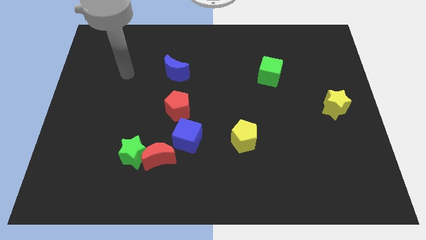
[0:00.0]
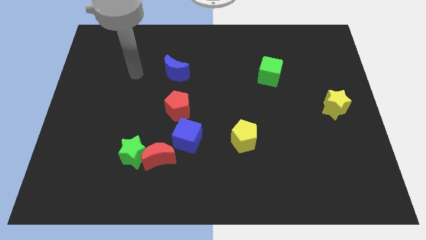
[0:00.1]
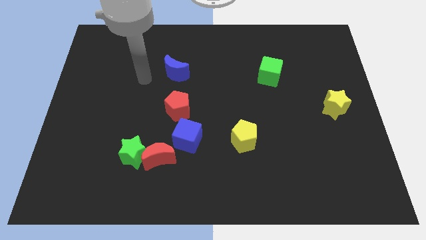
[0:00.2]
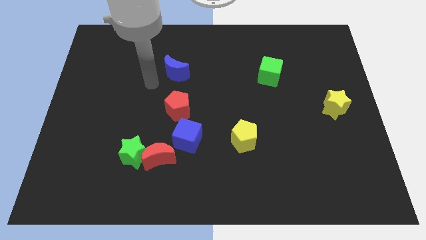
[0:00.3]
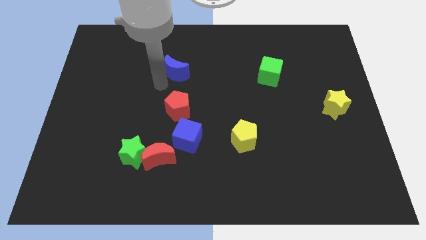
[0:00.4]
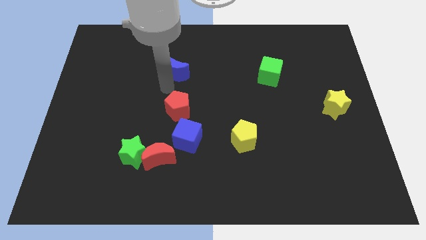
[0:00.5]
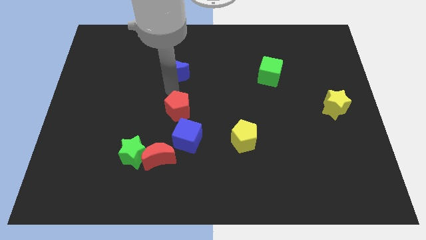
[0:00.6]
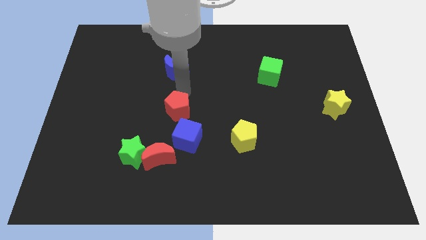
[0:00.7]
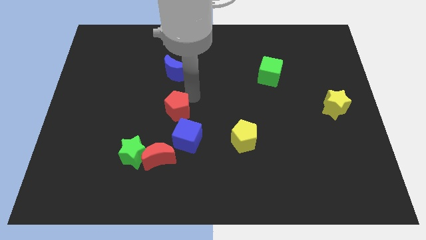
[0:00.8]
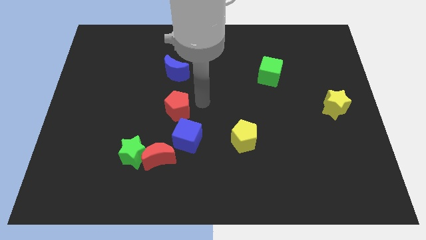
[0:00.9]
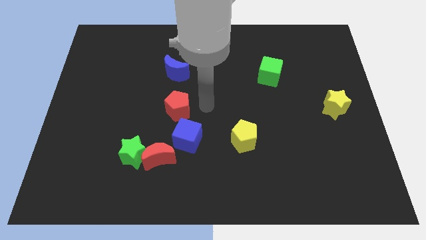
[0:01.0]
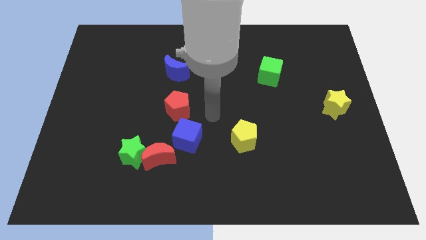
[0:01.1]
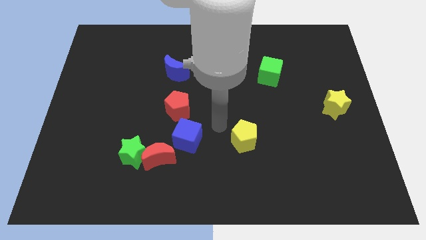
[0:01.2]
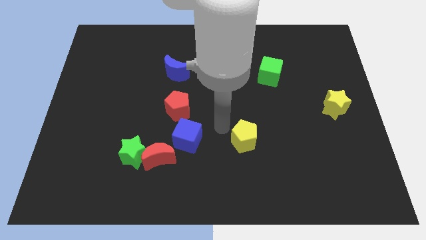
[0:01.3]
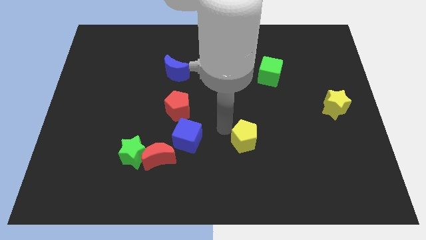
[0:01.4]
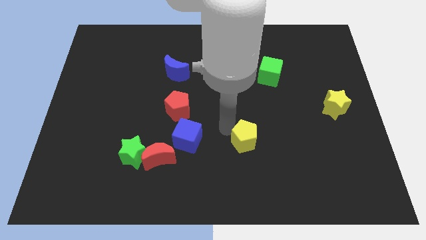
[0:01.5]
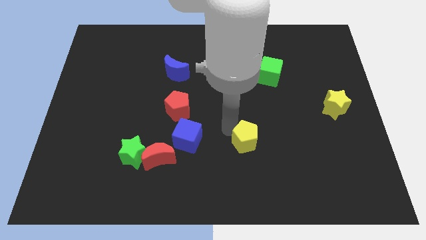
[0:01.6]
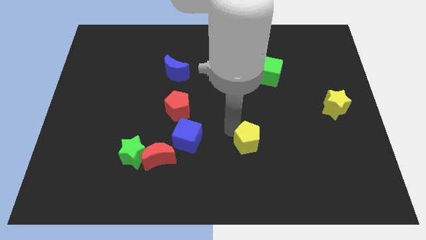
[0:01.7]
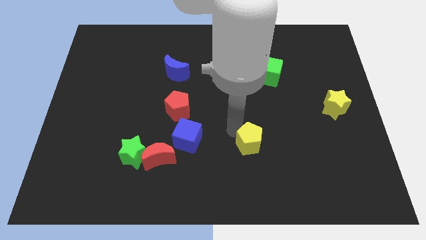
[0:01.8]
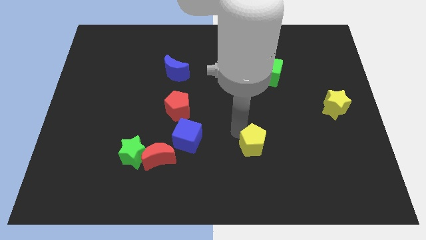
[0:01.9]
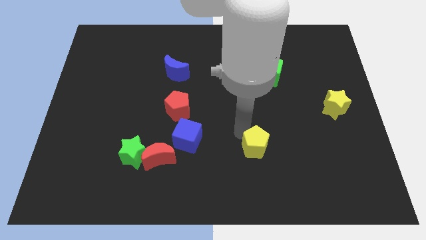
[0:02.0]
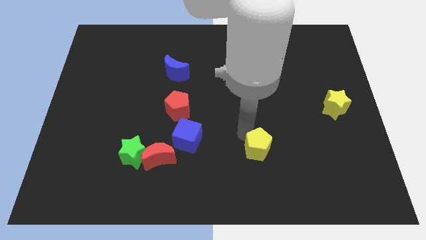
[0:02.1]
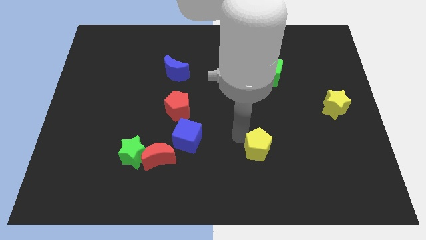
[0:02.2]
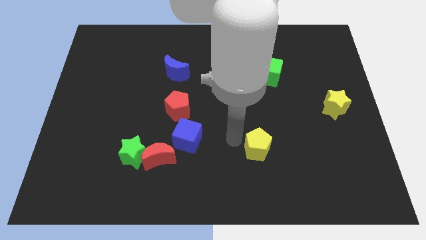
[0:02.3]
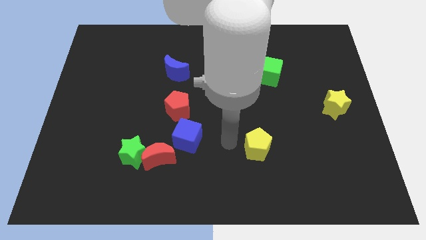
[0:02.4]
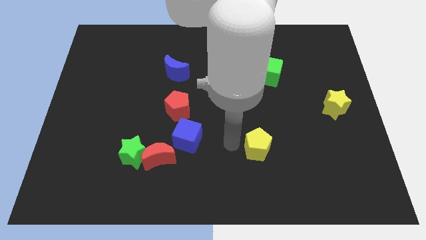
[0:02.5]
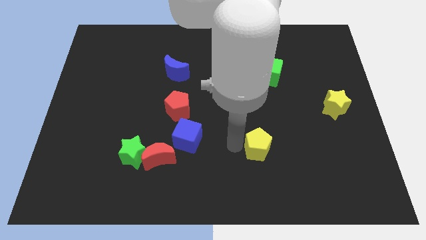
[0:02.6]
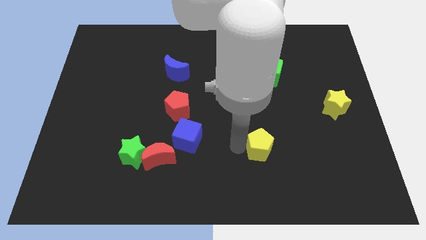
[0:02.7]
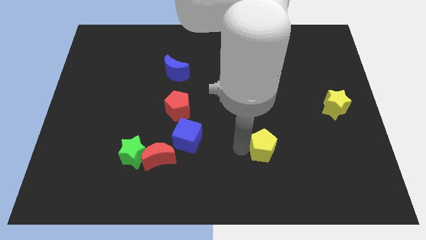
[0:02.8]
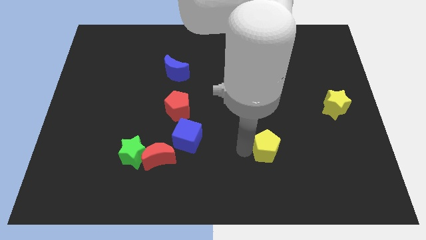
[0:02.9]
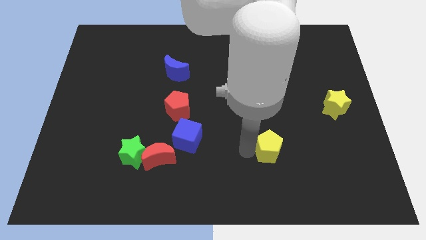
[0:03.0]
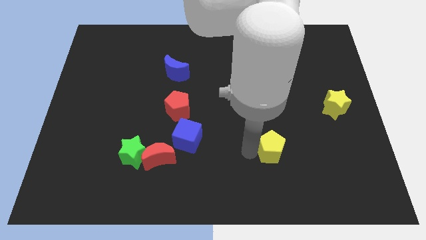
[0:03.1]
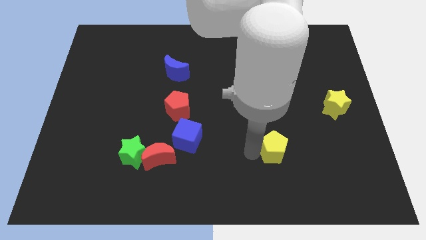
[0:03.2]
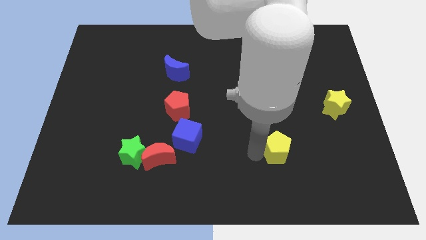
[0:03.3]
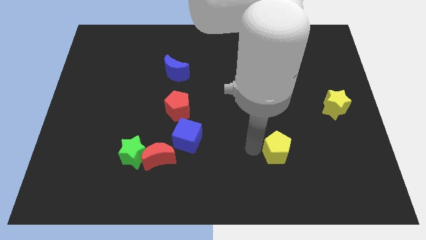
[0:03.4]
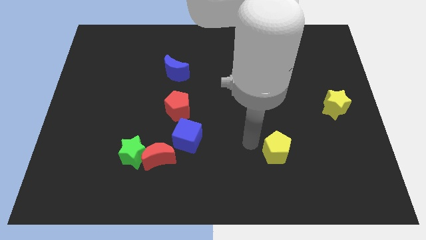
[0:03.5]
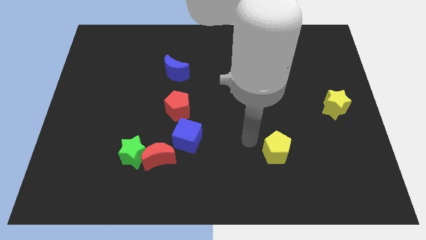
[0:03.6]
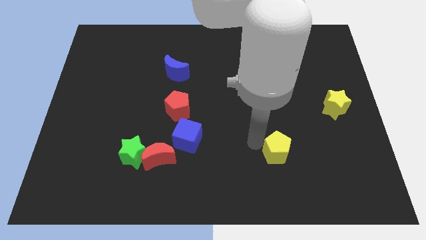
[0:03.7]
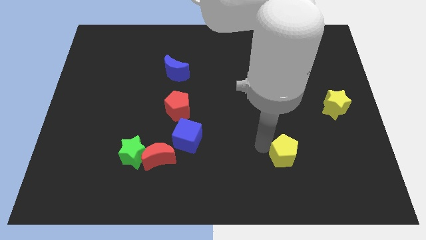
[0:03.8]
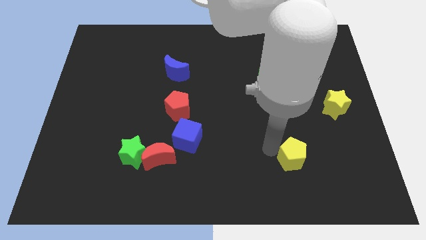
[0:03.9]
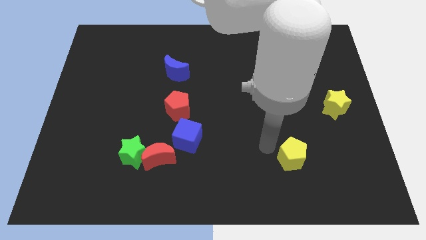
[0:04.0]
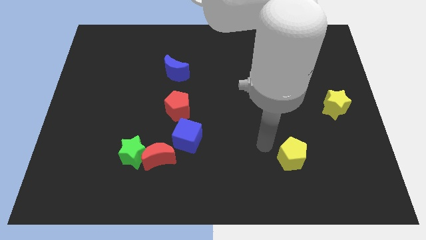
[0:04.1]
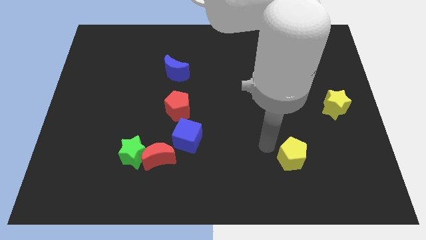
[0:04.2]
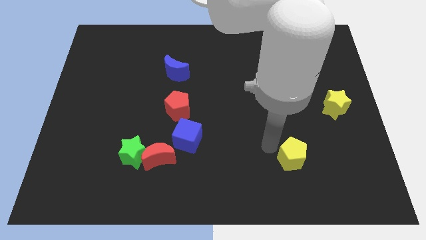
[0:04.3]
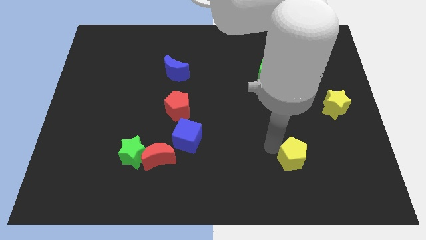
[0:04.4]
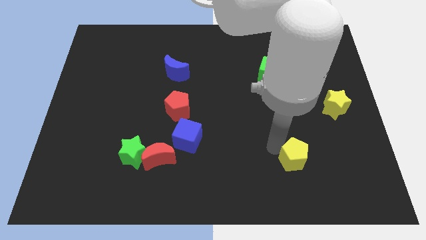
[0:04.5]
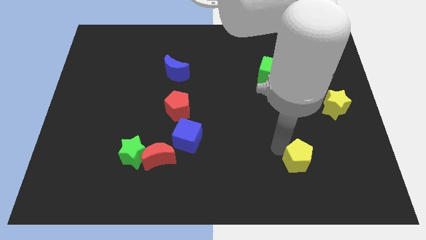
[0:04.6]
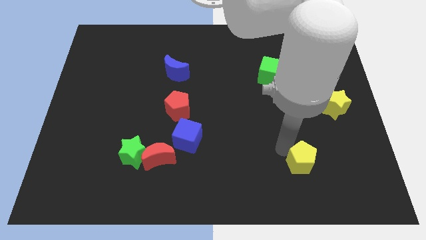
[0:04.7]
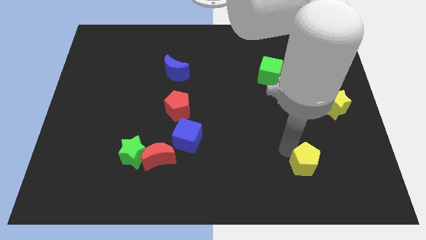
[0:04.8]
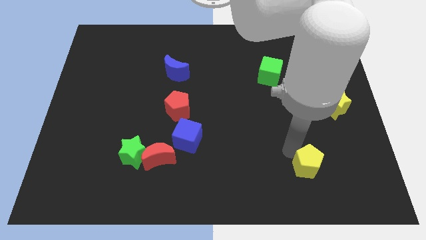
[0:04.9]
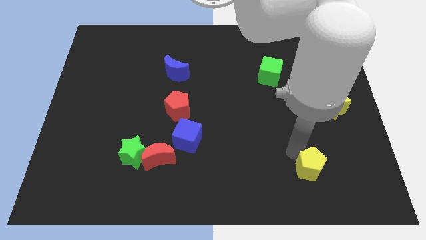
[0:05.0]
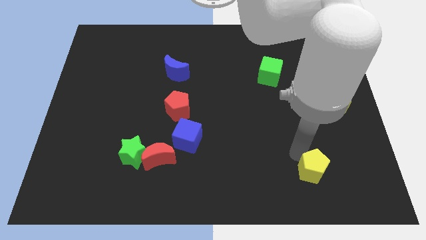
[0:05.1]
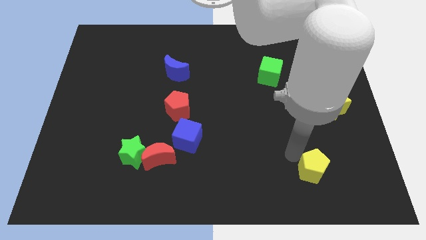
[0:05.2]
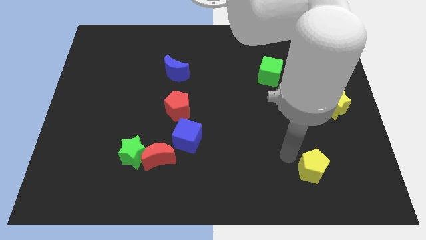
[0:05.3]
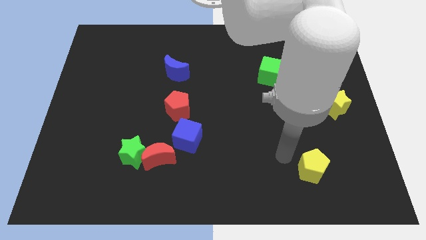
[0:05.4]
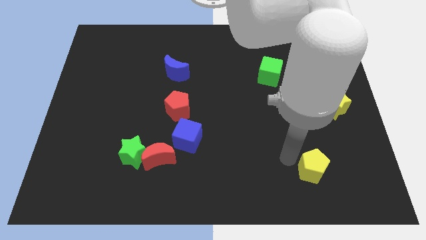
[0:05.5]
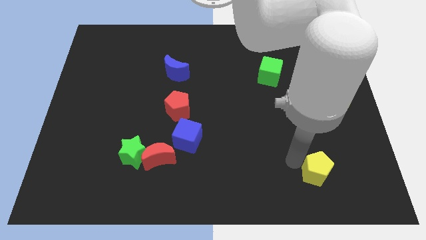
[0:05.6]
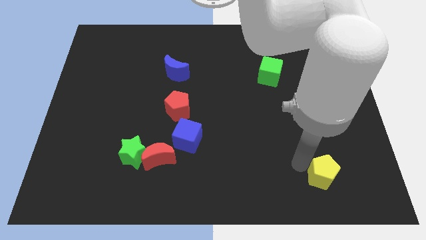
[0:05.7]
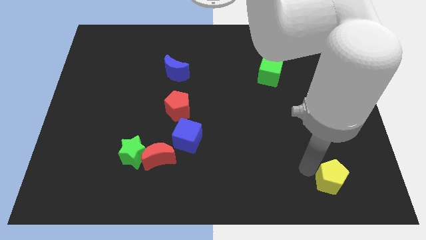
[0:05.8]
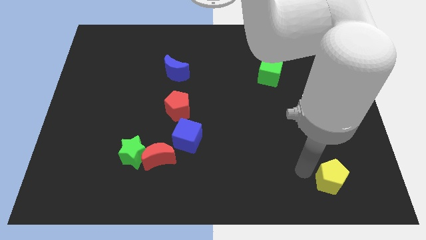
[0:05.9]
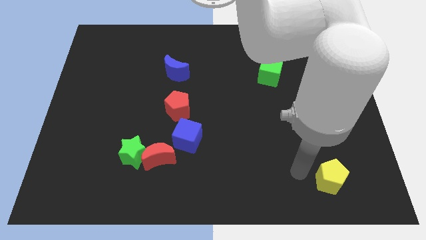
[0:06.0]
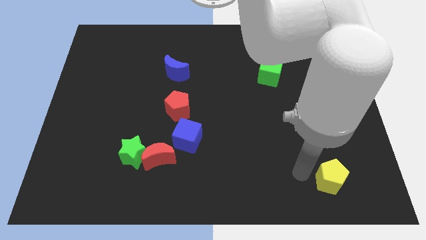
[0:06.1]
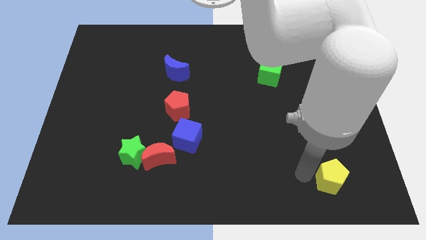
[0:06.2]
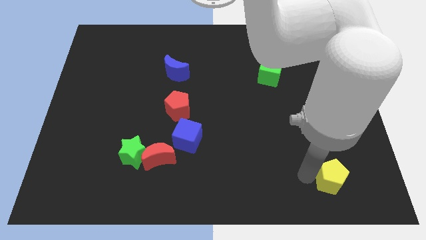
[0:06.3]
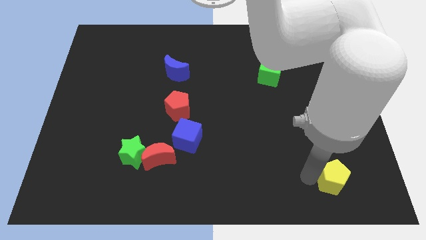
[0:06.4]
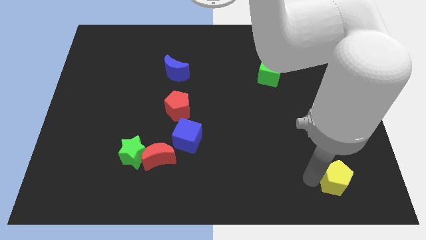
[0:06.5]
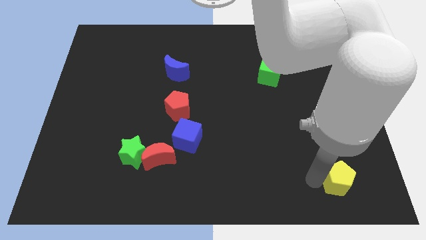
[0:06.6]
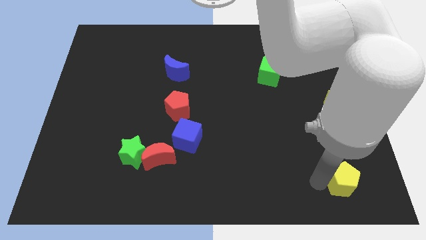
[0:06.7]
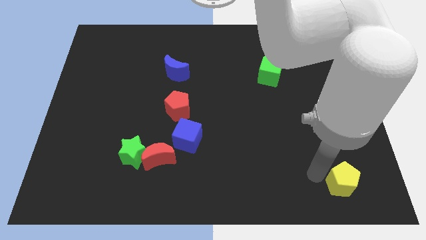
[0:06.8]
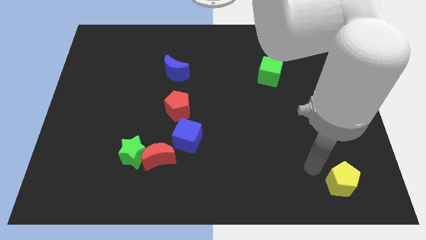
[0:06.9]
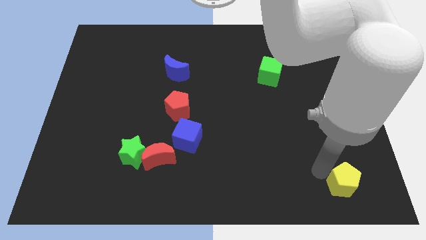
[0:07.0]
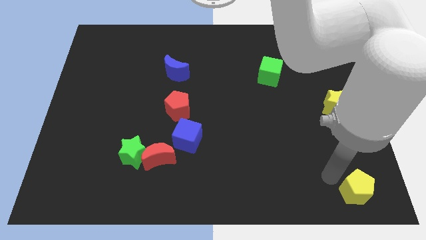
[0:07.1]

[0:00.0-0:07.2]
push the yellow pentagon to the bottom right corner
